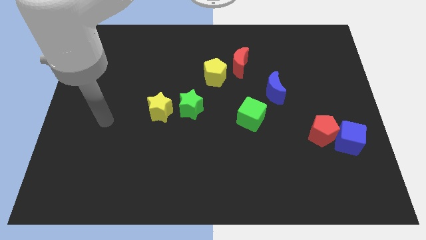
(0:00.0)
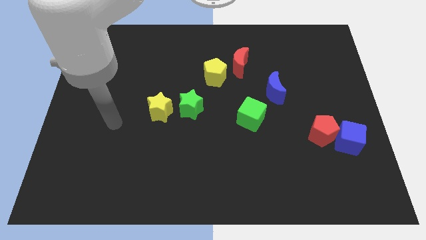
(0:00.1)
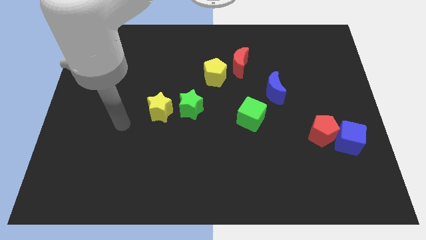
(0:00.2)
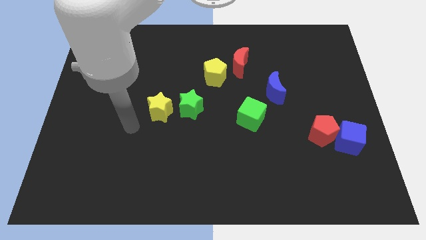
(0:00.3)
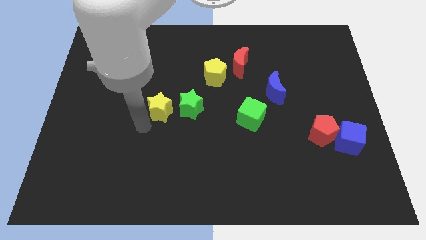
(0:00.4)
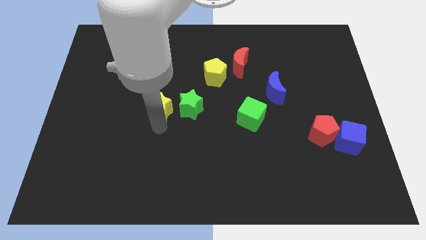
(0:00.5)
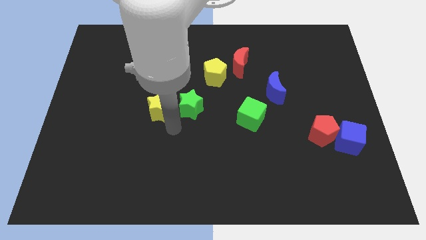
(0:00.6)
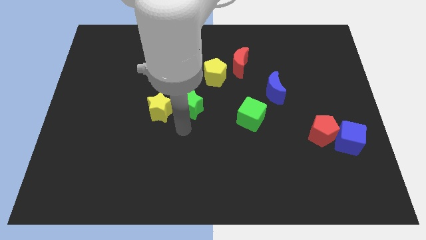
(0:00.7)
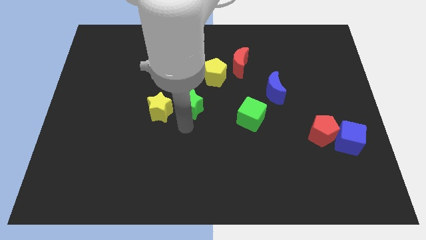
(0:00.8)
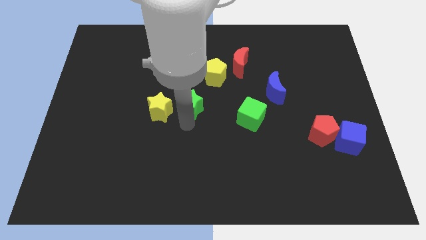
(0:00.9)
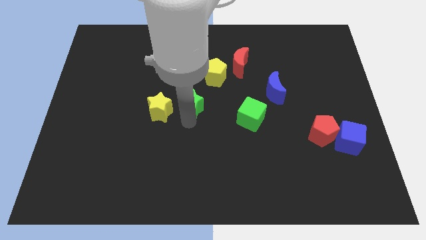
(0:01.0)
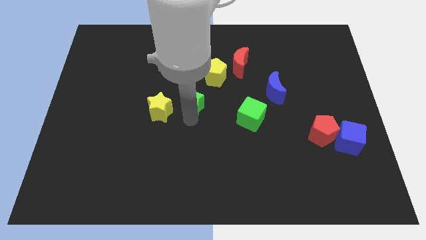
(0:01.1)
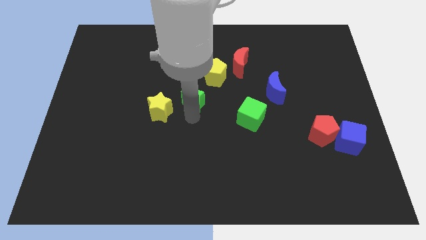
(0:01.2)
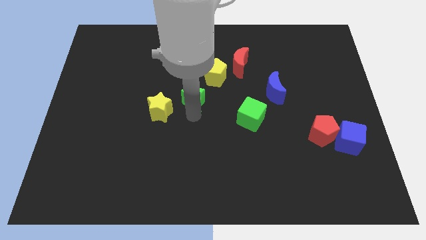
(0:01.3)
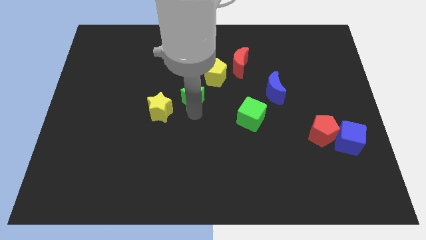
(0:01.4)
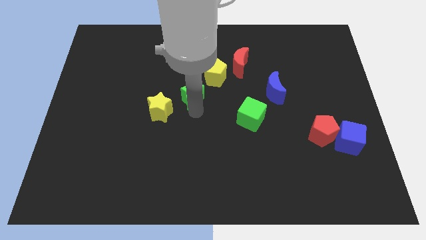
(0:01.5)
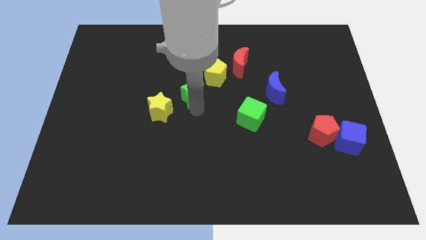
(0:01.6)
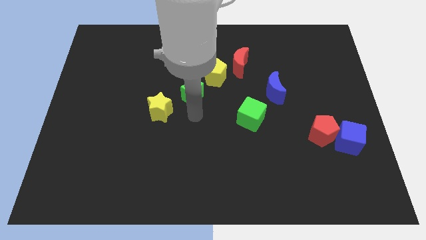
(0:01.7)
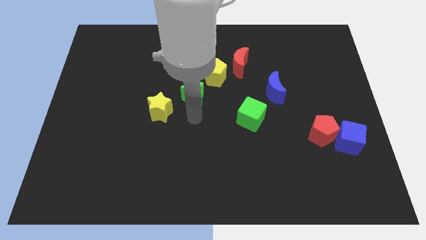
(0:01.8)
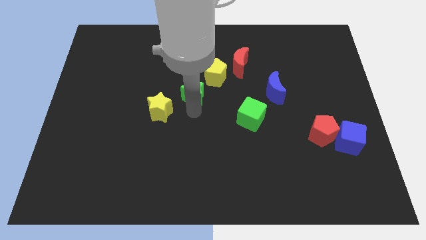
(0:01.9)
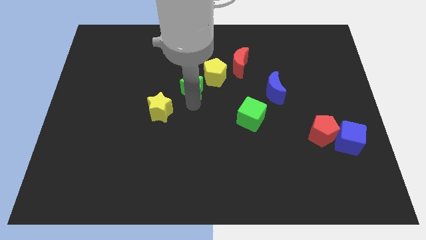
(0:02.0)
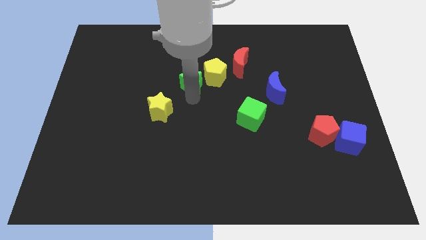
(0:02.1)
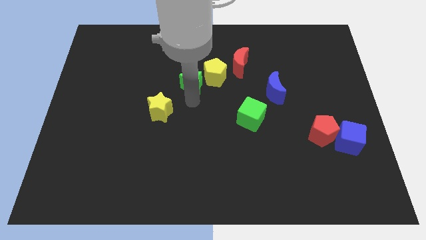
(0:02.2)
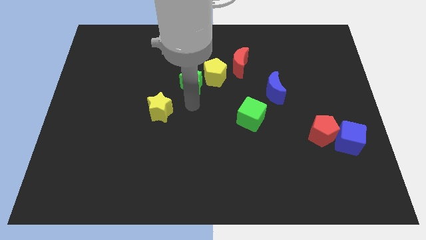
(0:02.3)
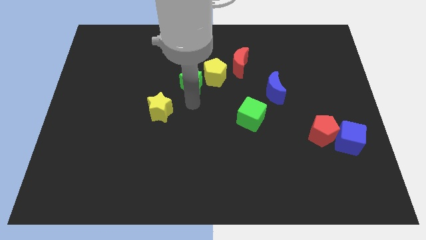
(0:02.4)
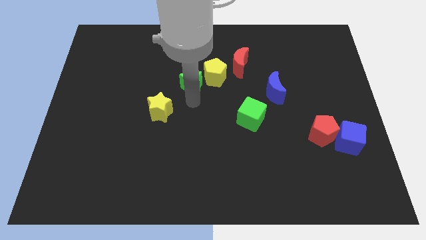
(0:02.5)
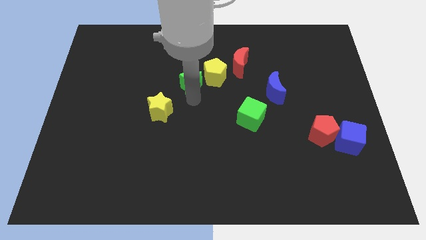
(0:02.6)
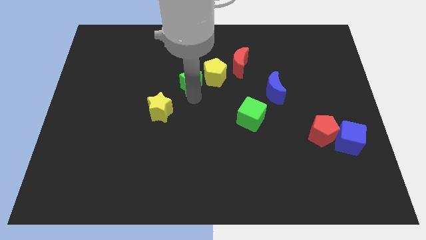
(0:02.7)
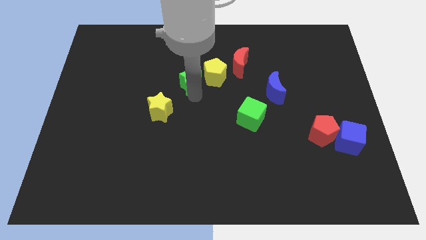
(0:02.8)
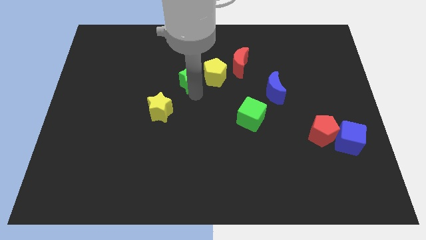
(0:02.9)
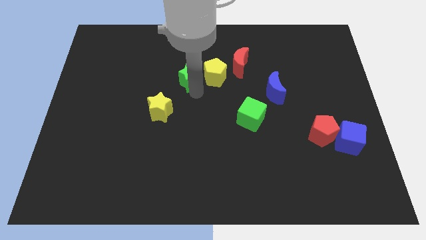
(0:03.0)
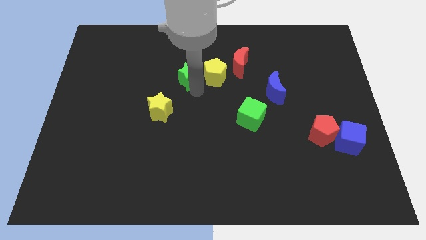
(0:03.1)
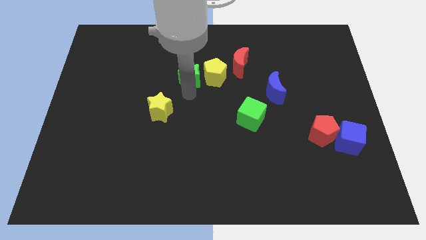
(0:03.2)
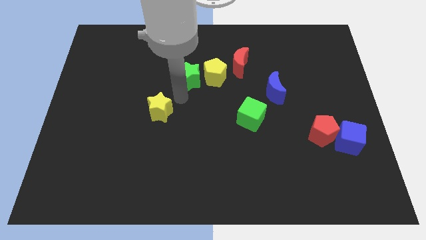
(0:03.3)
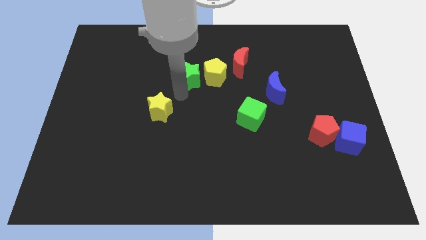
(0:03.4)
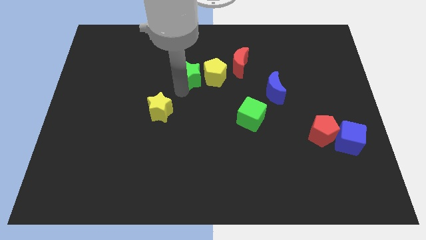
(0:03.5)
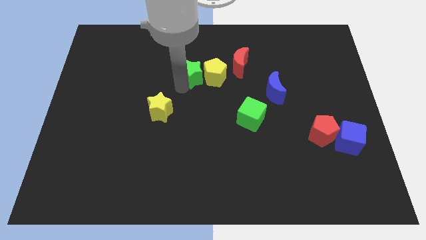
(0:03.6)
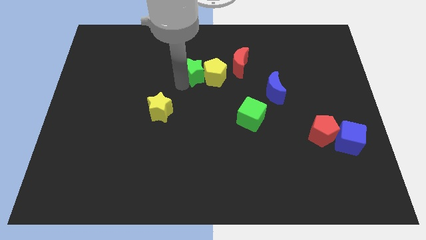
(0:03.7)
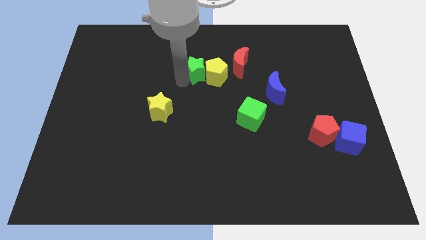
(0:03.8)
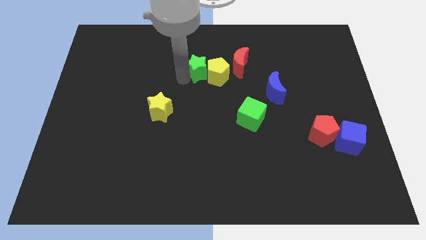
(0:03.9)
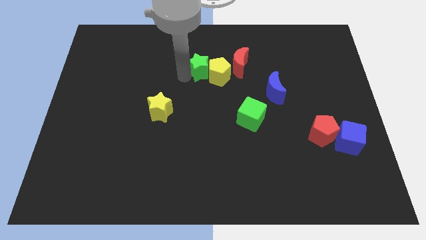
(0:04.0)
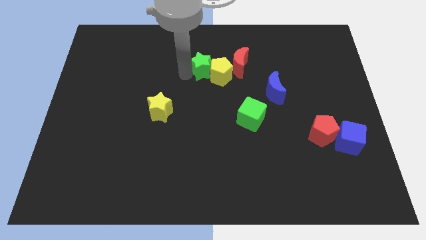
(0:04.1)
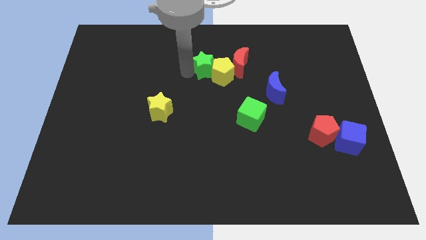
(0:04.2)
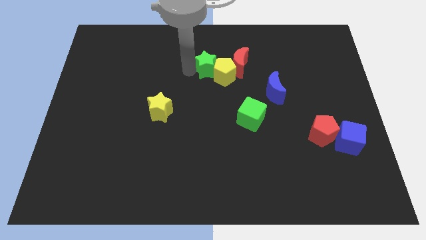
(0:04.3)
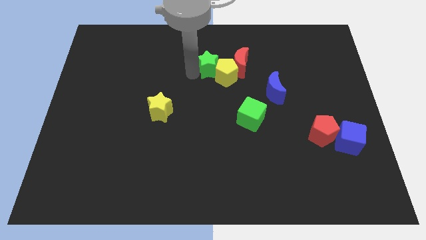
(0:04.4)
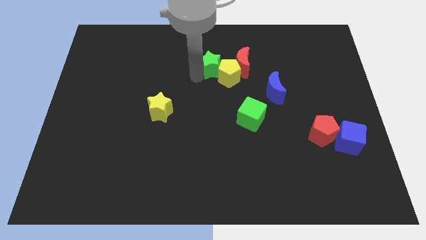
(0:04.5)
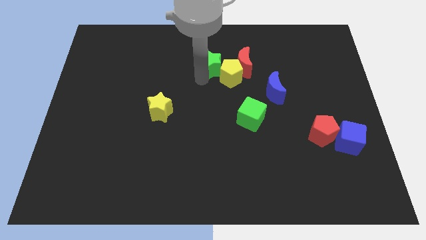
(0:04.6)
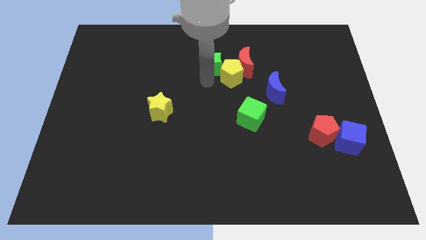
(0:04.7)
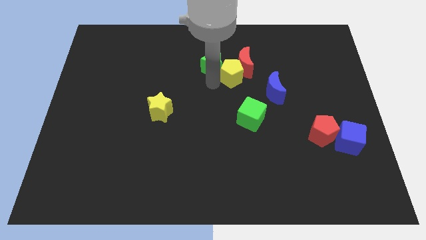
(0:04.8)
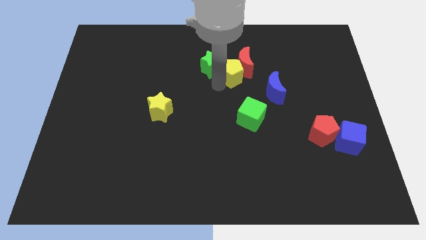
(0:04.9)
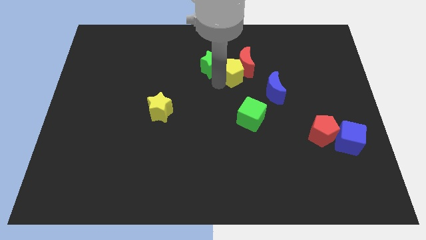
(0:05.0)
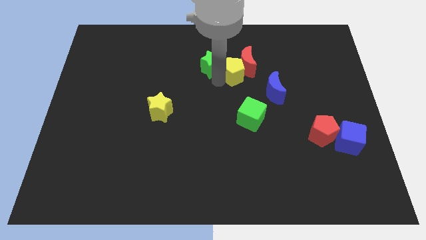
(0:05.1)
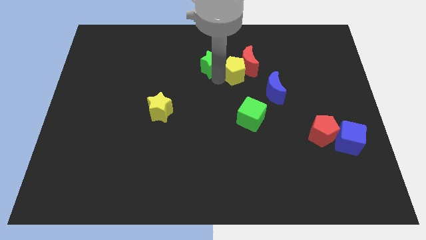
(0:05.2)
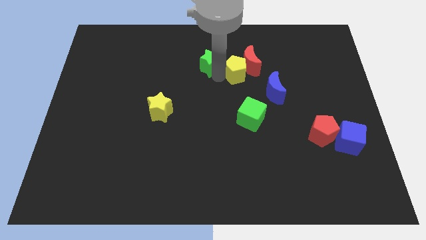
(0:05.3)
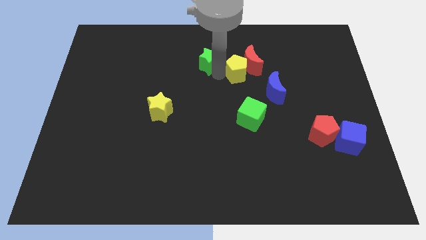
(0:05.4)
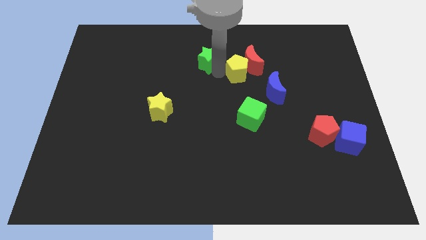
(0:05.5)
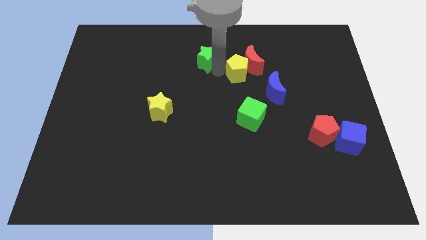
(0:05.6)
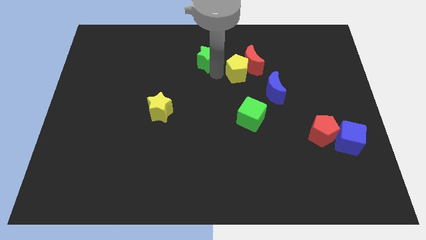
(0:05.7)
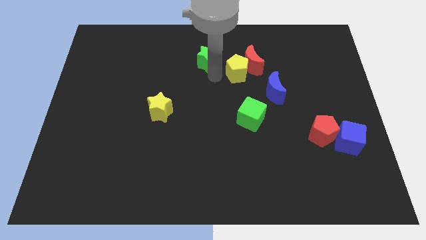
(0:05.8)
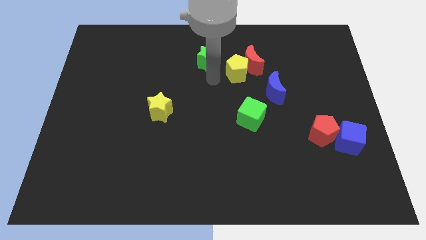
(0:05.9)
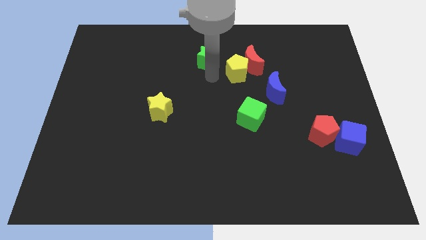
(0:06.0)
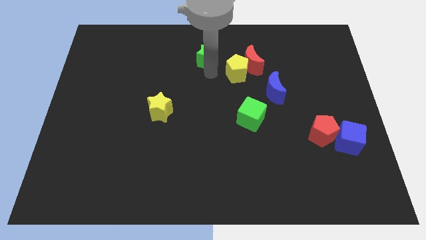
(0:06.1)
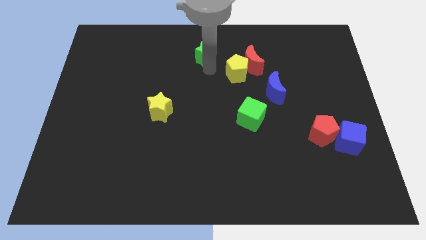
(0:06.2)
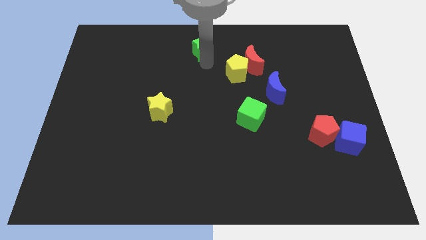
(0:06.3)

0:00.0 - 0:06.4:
move the green star to the top
